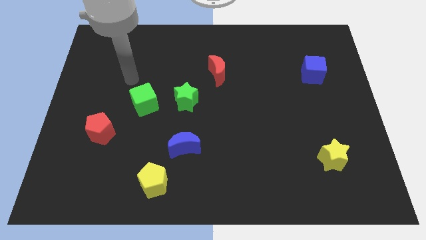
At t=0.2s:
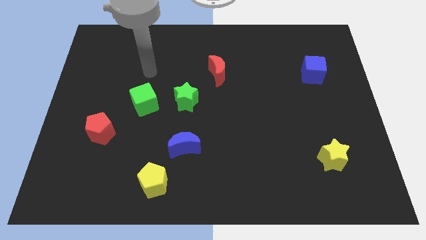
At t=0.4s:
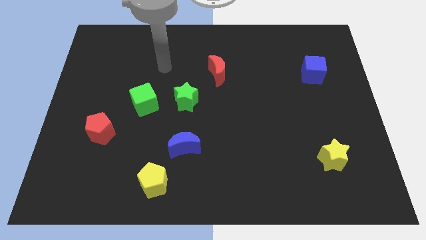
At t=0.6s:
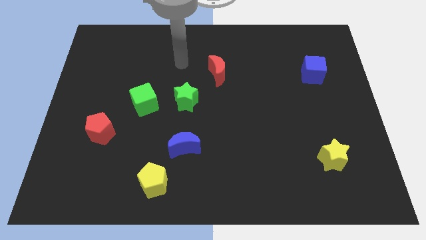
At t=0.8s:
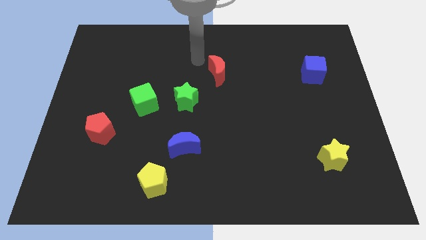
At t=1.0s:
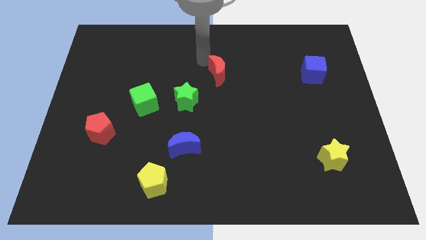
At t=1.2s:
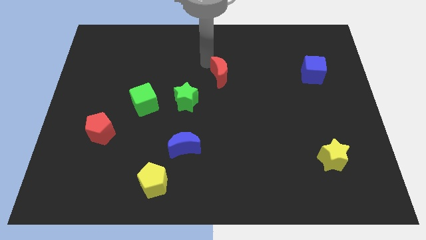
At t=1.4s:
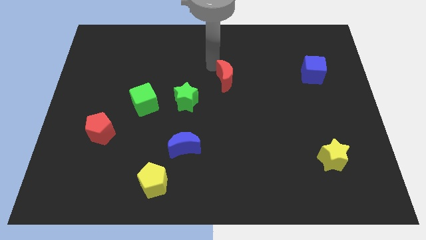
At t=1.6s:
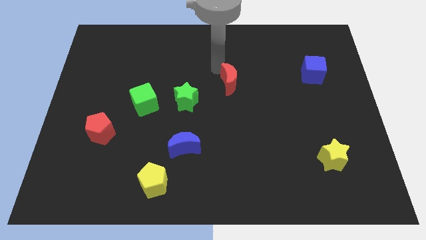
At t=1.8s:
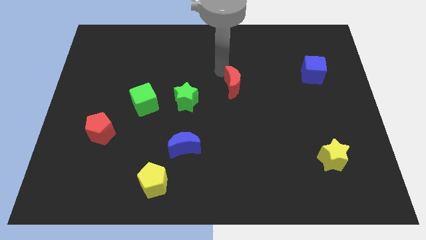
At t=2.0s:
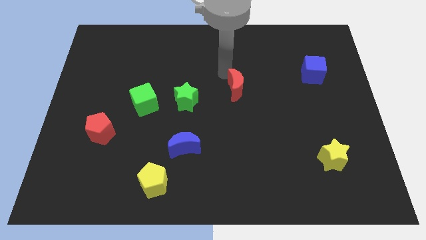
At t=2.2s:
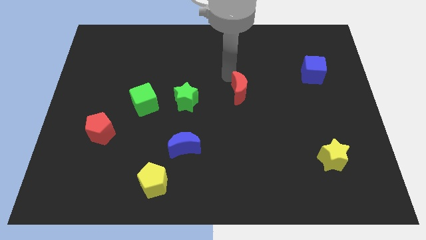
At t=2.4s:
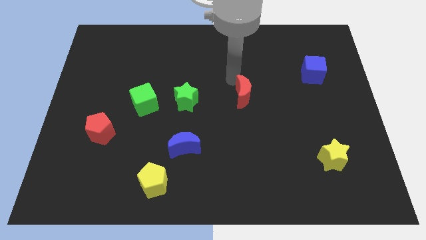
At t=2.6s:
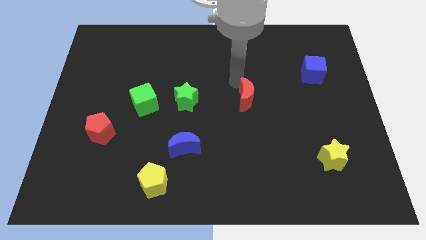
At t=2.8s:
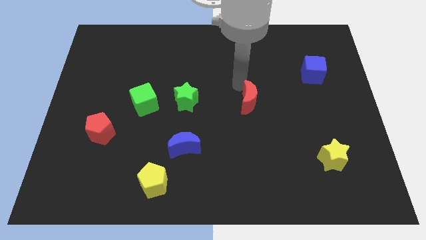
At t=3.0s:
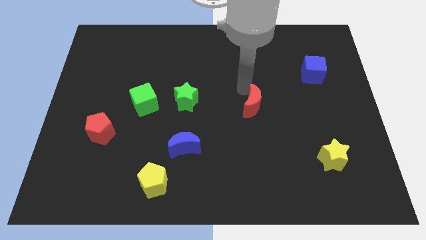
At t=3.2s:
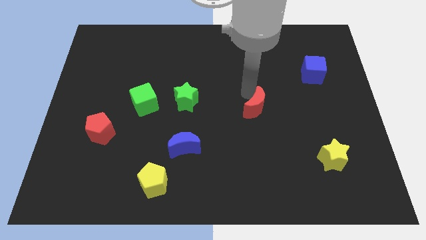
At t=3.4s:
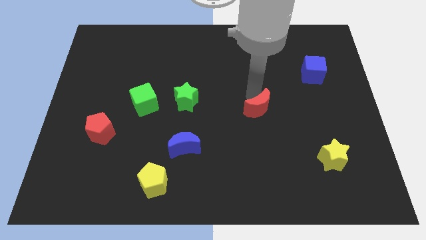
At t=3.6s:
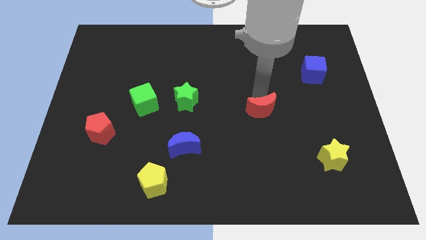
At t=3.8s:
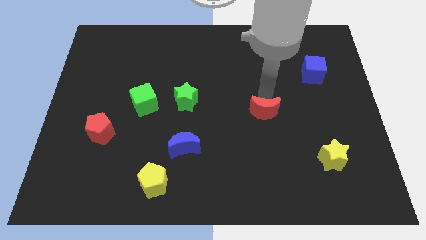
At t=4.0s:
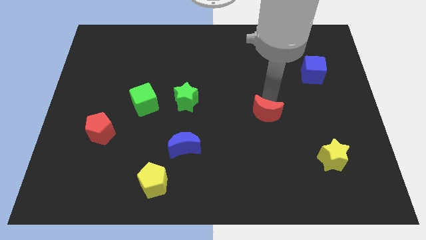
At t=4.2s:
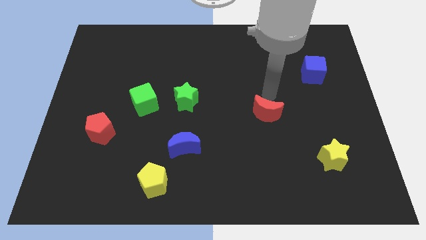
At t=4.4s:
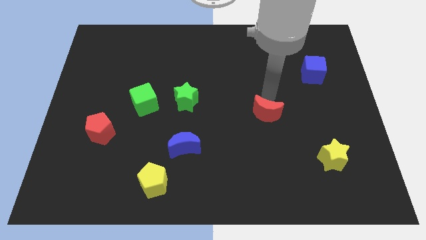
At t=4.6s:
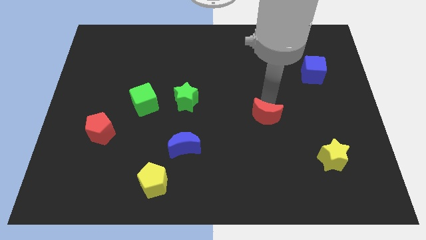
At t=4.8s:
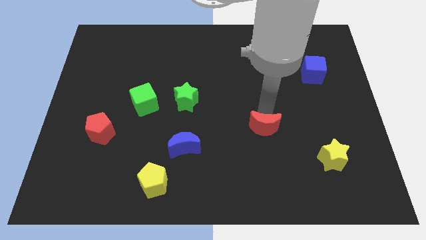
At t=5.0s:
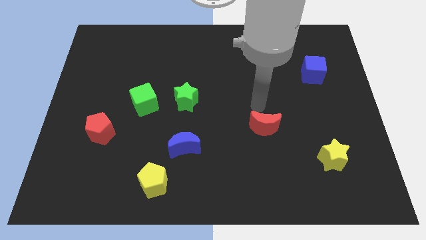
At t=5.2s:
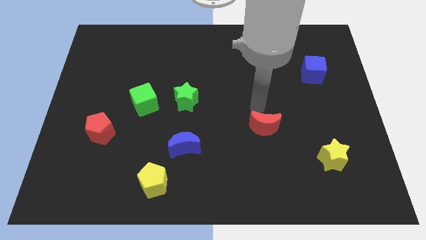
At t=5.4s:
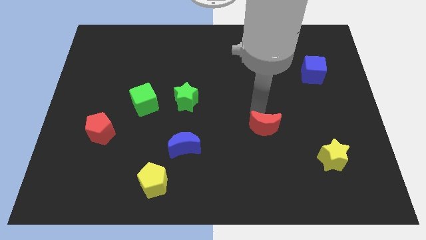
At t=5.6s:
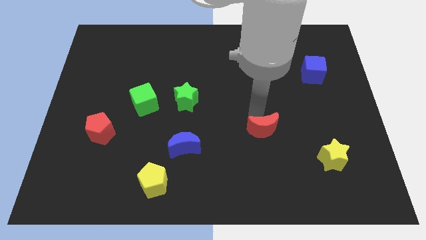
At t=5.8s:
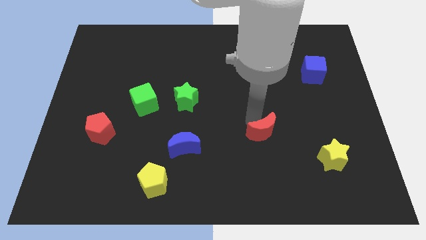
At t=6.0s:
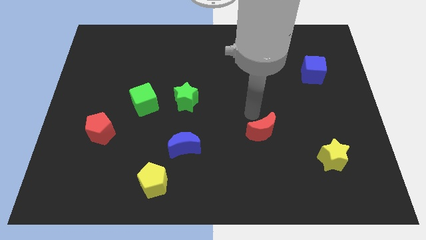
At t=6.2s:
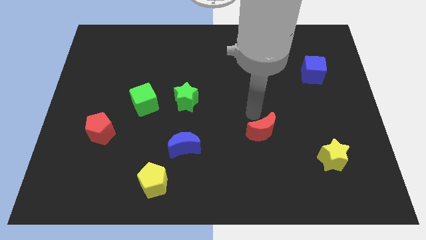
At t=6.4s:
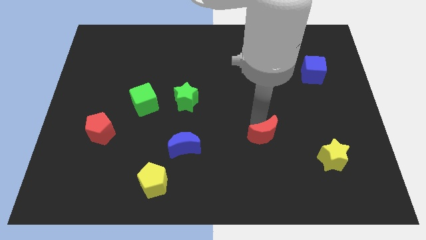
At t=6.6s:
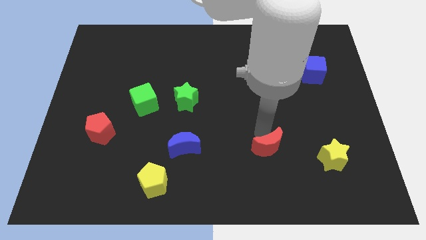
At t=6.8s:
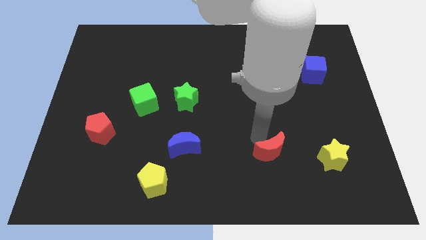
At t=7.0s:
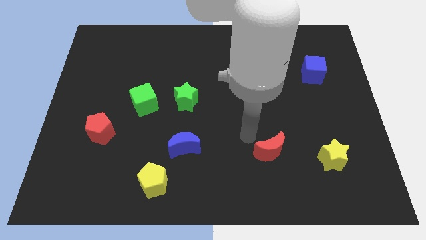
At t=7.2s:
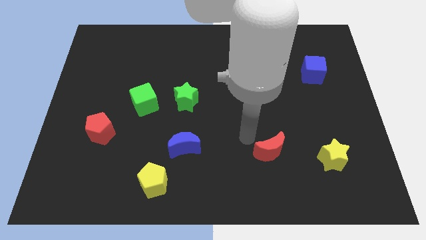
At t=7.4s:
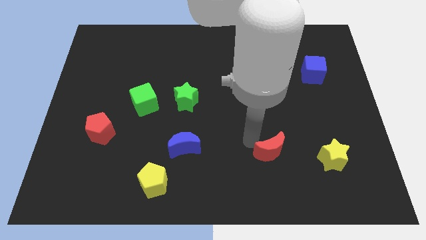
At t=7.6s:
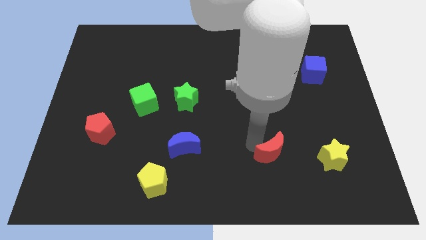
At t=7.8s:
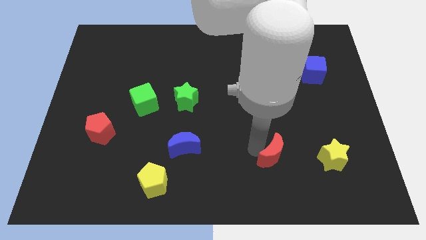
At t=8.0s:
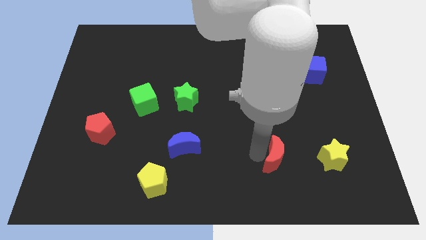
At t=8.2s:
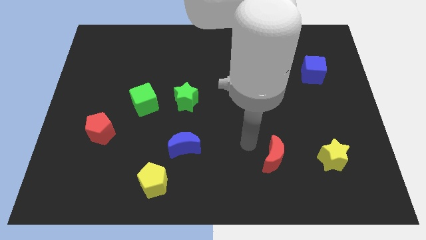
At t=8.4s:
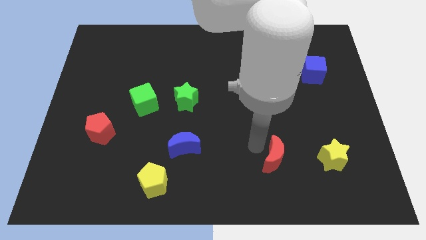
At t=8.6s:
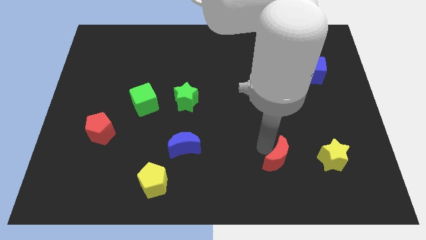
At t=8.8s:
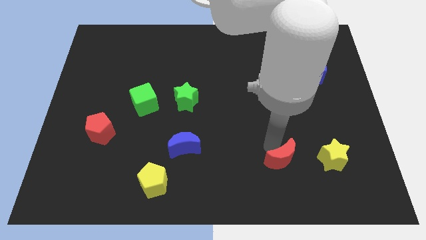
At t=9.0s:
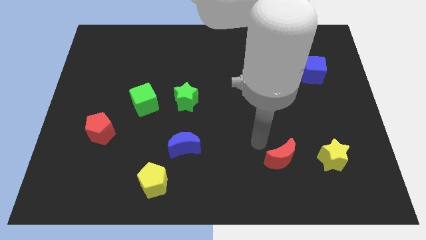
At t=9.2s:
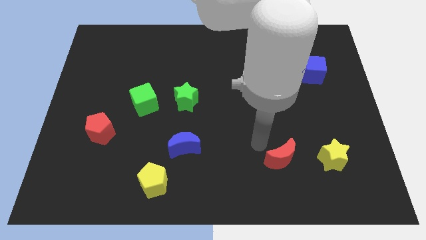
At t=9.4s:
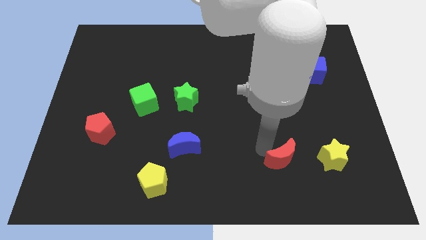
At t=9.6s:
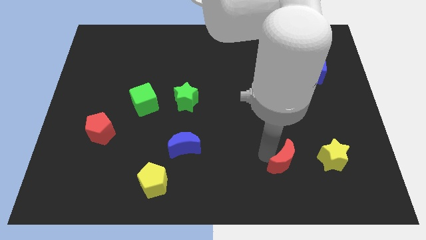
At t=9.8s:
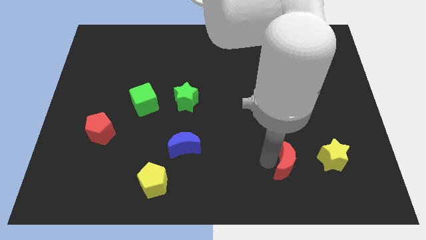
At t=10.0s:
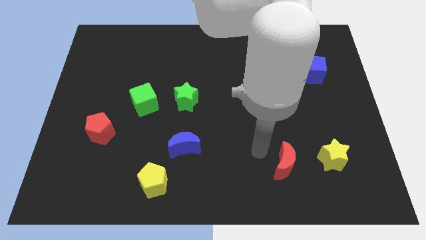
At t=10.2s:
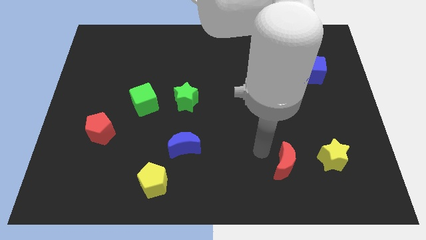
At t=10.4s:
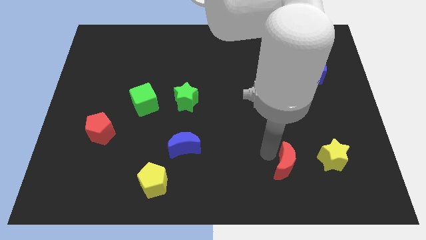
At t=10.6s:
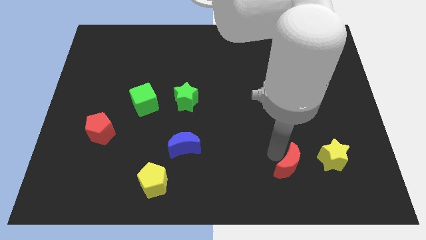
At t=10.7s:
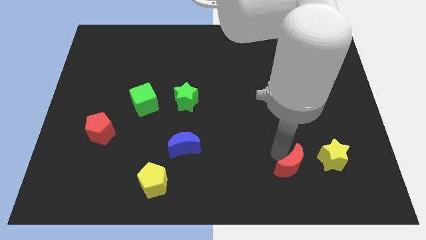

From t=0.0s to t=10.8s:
push the red moon diagonally down and to the left of the yellow star

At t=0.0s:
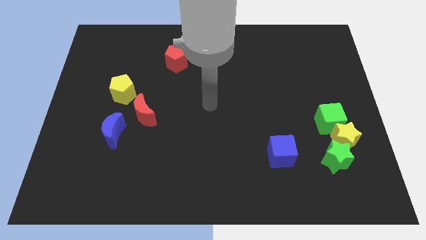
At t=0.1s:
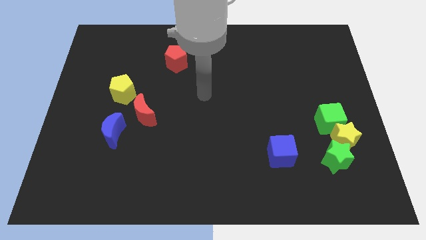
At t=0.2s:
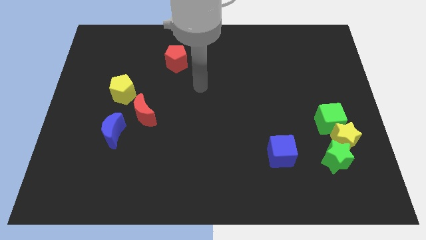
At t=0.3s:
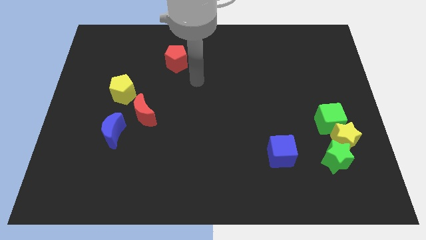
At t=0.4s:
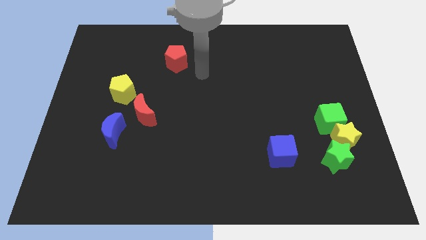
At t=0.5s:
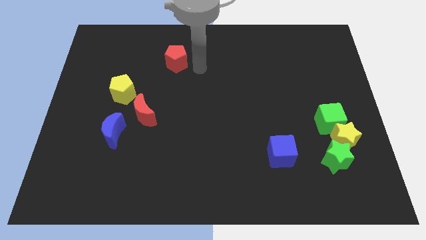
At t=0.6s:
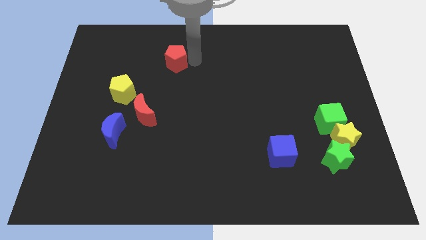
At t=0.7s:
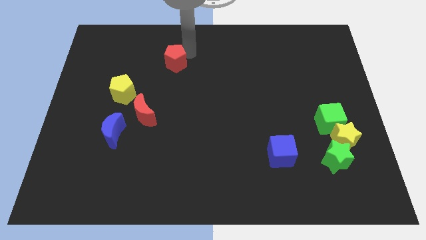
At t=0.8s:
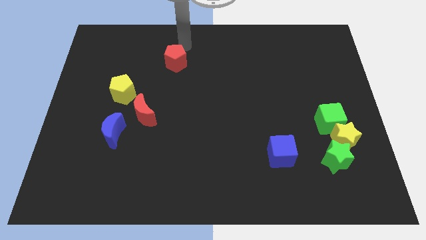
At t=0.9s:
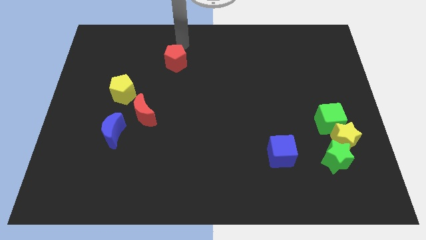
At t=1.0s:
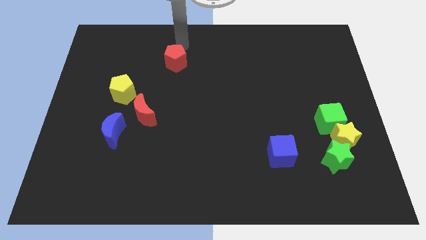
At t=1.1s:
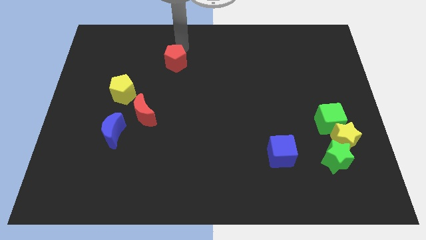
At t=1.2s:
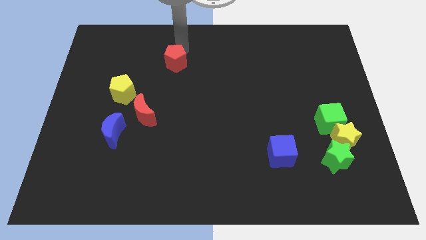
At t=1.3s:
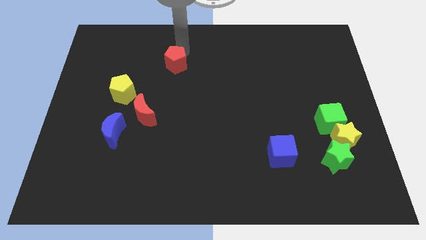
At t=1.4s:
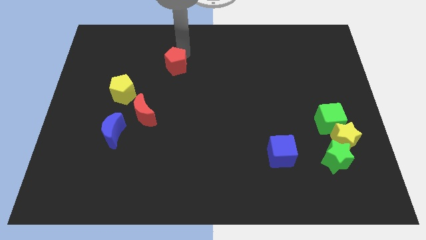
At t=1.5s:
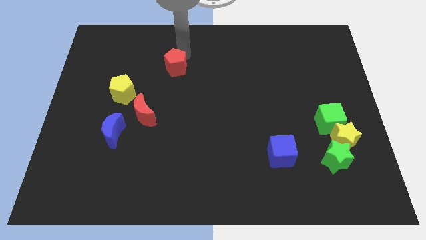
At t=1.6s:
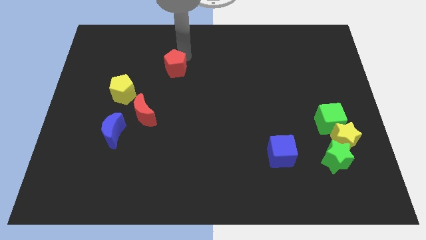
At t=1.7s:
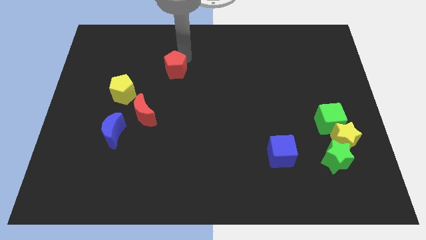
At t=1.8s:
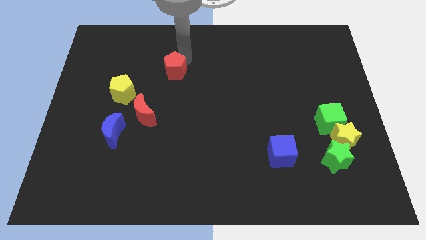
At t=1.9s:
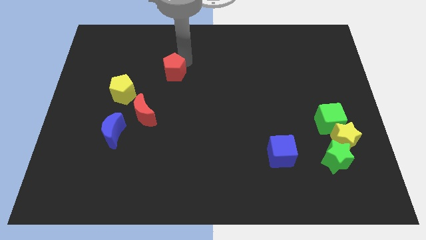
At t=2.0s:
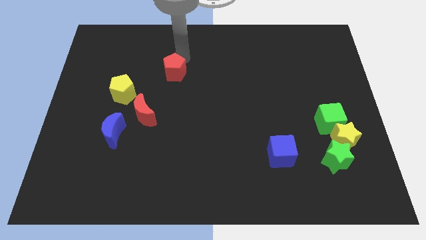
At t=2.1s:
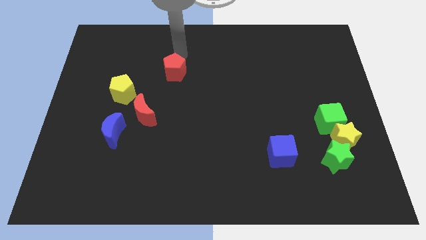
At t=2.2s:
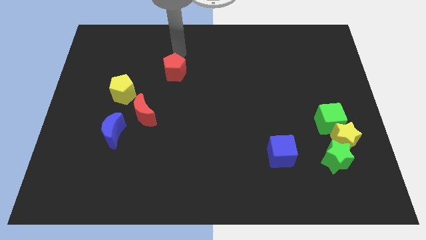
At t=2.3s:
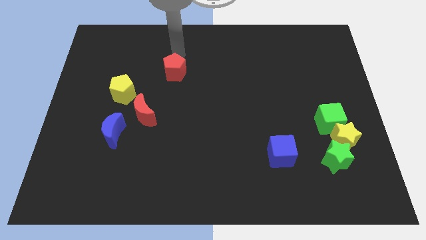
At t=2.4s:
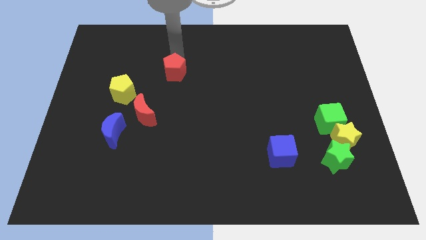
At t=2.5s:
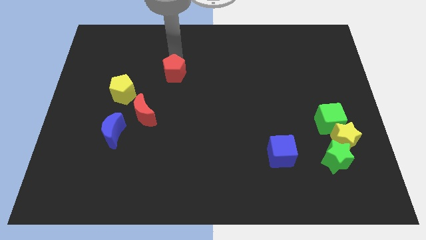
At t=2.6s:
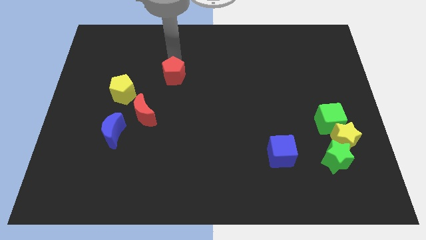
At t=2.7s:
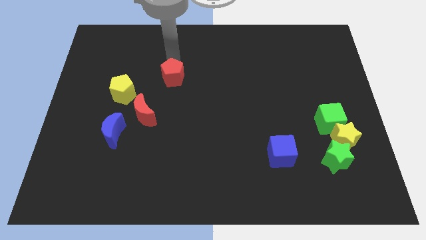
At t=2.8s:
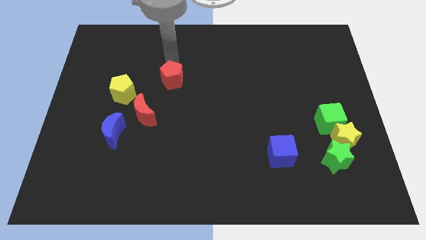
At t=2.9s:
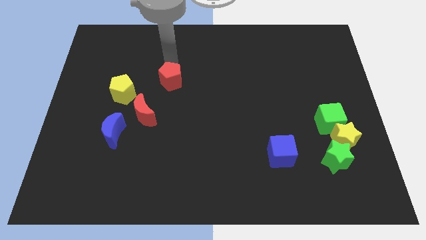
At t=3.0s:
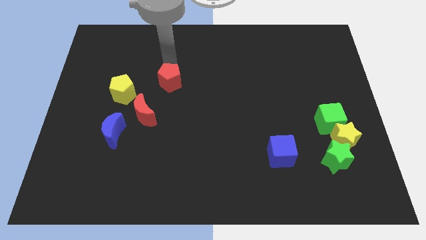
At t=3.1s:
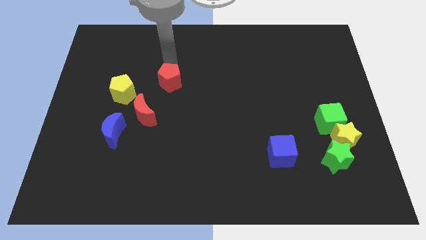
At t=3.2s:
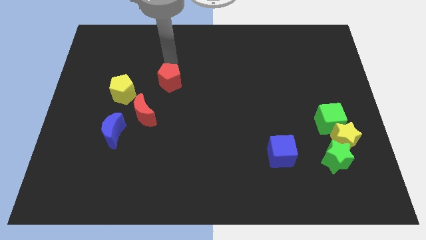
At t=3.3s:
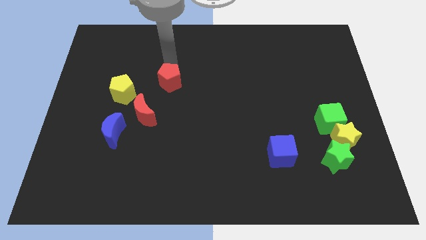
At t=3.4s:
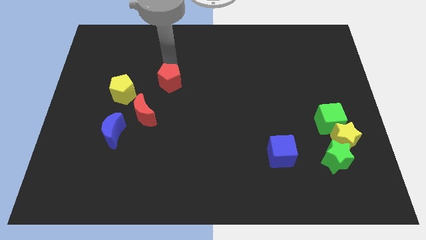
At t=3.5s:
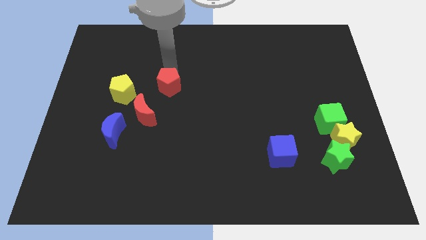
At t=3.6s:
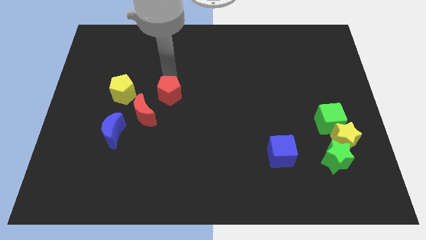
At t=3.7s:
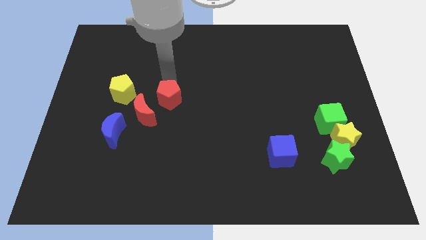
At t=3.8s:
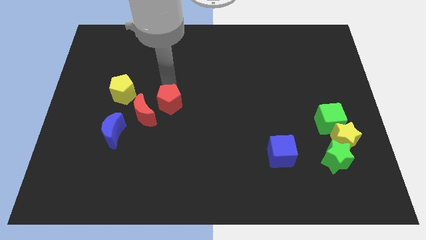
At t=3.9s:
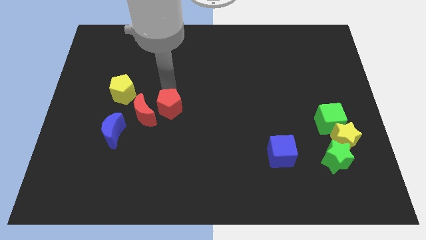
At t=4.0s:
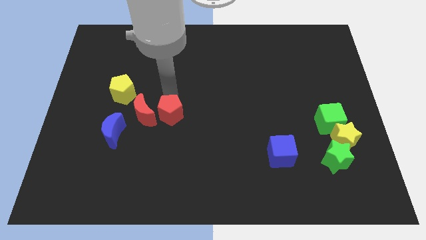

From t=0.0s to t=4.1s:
put the red pentagon to the bottom right of the red moon
